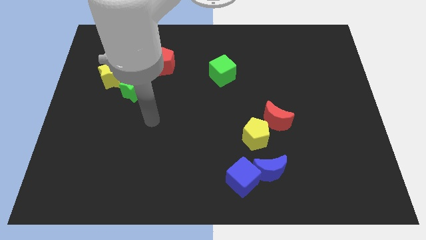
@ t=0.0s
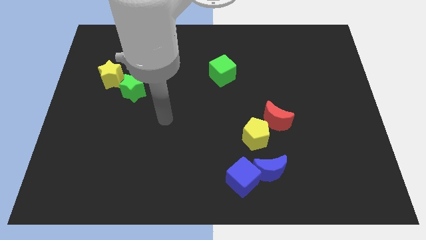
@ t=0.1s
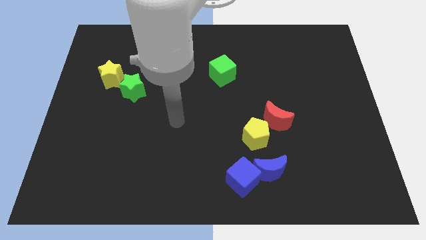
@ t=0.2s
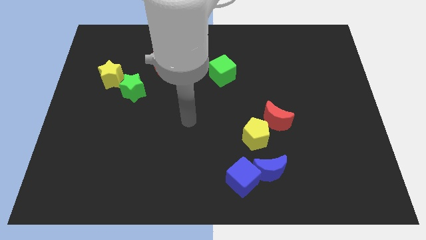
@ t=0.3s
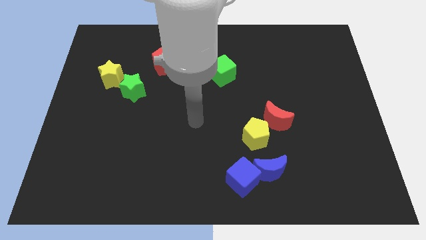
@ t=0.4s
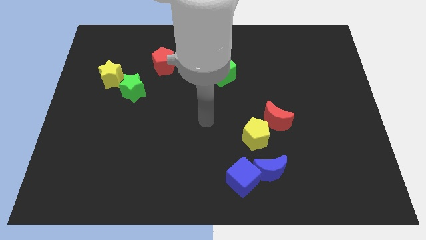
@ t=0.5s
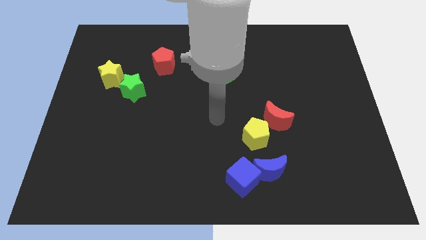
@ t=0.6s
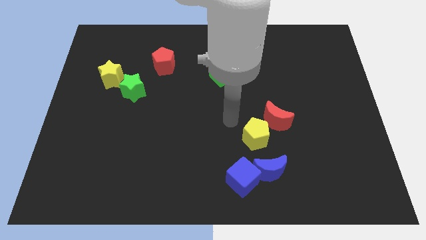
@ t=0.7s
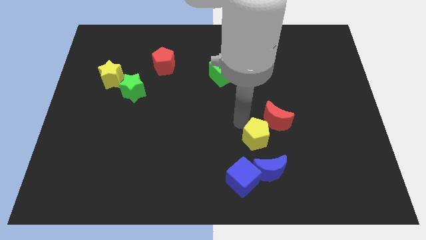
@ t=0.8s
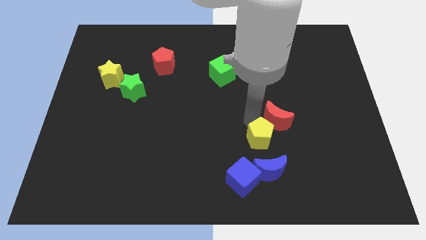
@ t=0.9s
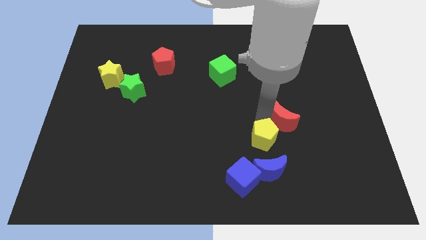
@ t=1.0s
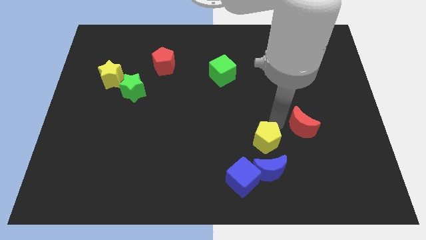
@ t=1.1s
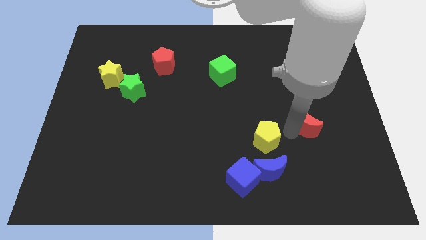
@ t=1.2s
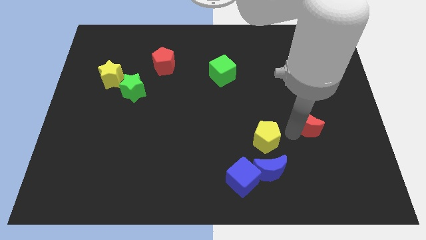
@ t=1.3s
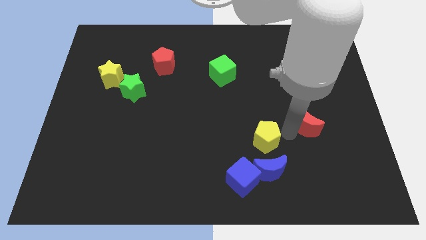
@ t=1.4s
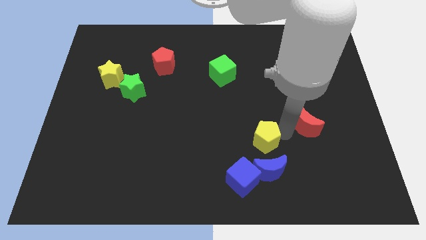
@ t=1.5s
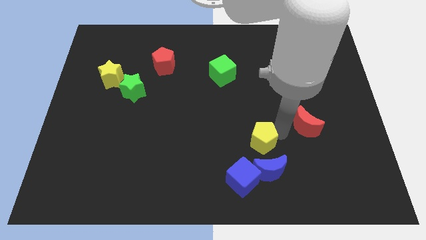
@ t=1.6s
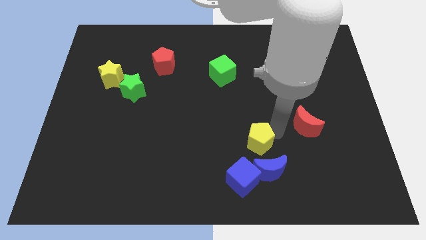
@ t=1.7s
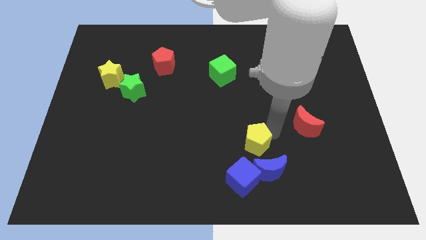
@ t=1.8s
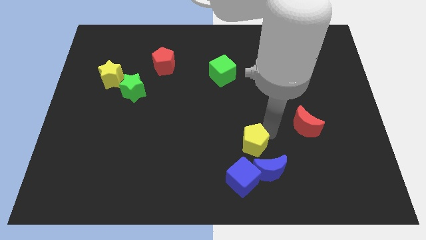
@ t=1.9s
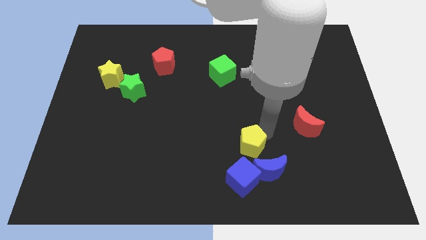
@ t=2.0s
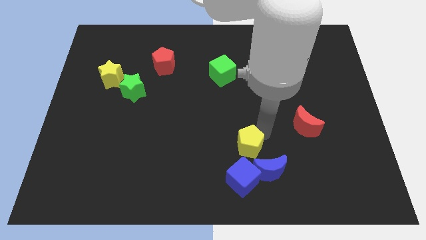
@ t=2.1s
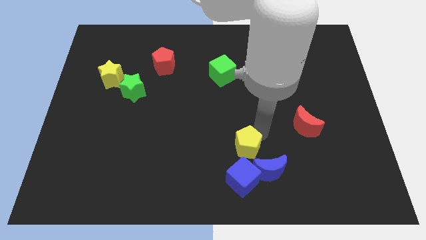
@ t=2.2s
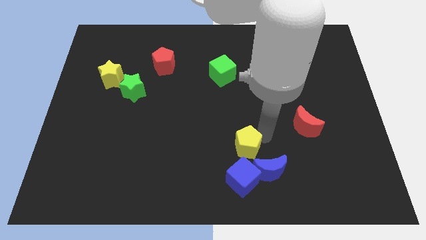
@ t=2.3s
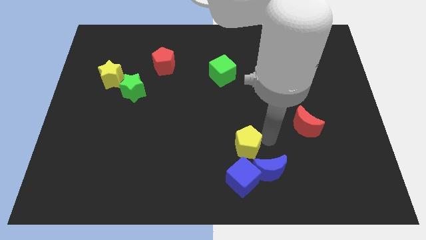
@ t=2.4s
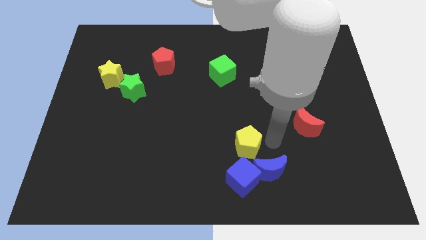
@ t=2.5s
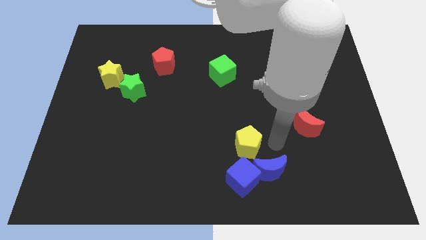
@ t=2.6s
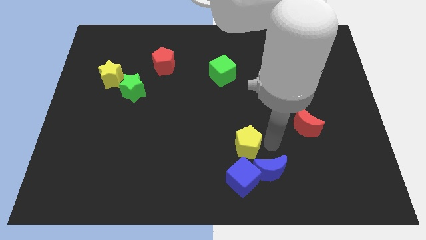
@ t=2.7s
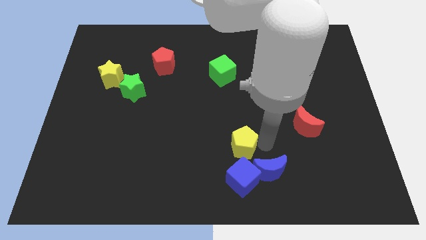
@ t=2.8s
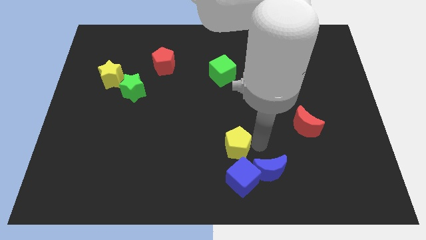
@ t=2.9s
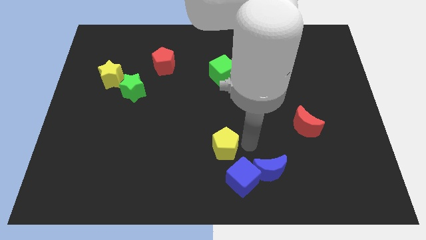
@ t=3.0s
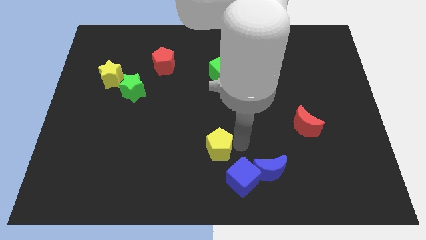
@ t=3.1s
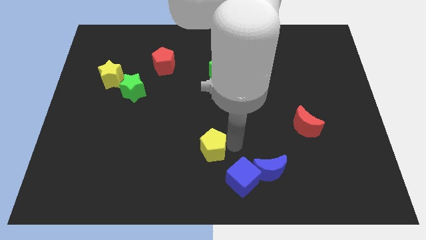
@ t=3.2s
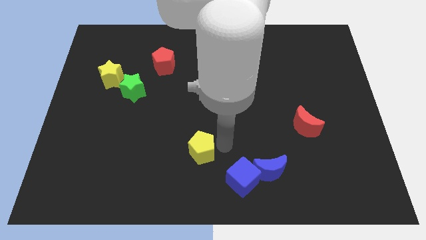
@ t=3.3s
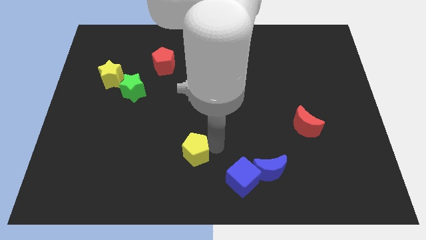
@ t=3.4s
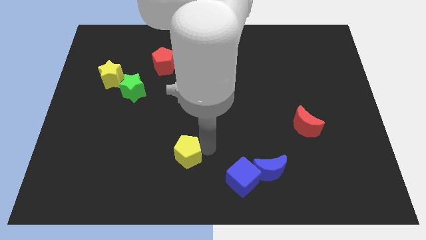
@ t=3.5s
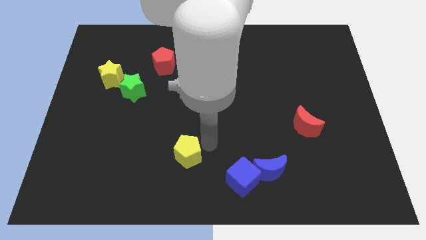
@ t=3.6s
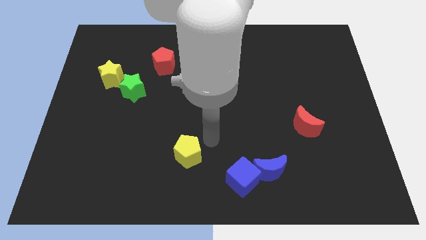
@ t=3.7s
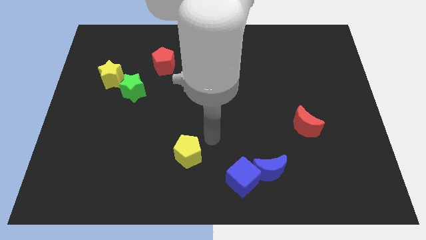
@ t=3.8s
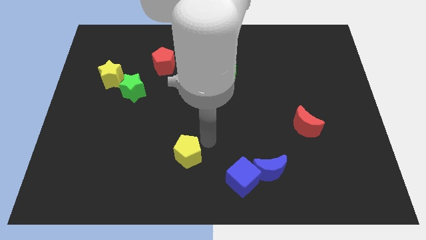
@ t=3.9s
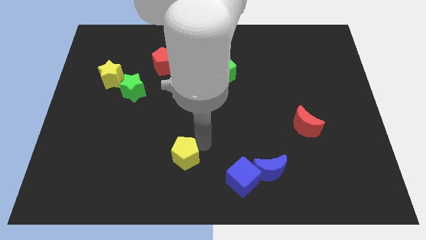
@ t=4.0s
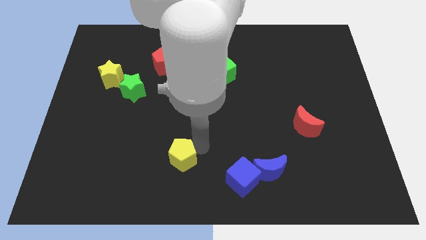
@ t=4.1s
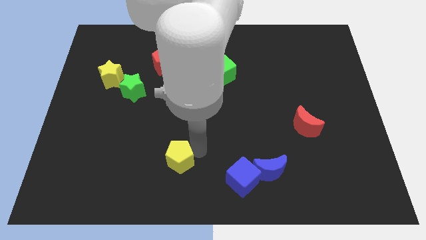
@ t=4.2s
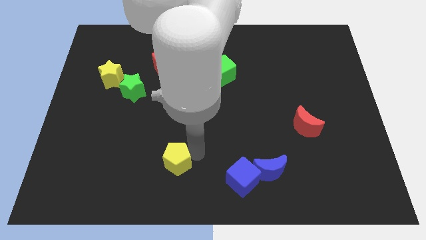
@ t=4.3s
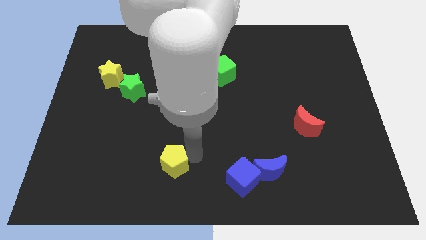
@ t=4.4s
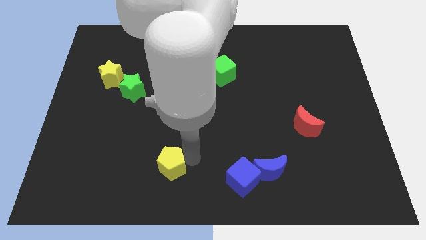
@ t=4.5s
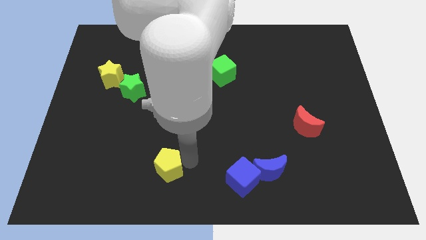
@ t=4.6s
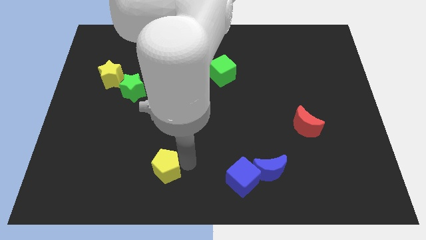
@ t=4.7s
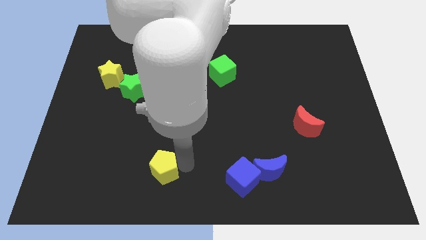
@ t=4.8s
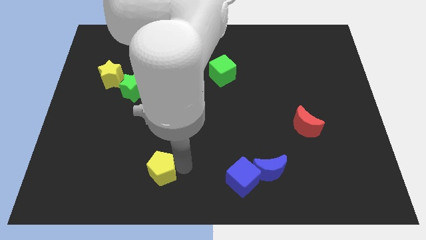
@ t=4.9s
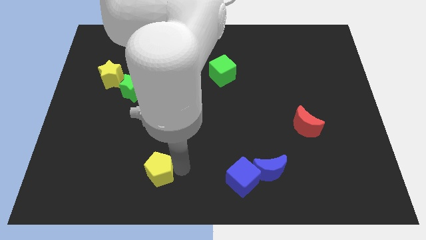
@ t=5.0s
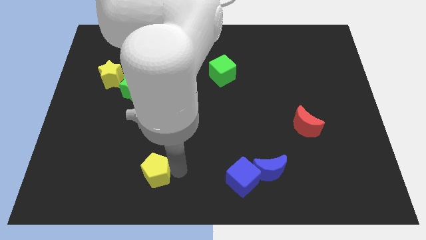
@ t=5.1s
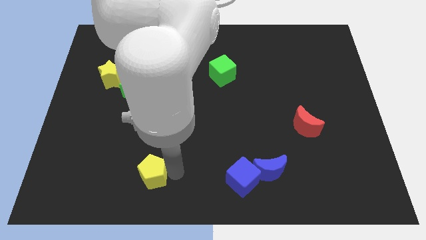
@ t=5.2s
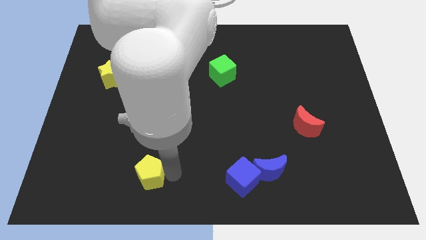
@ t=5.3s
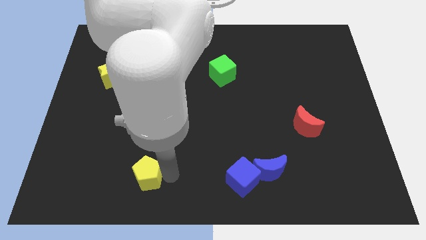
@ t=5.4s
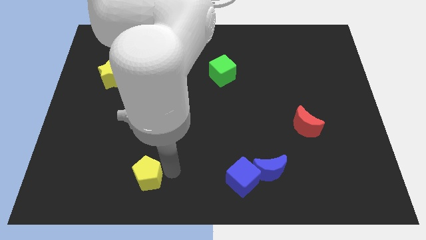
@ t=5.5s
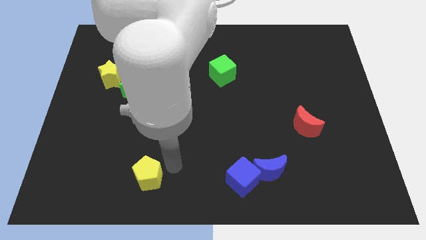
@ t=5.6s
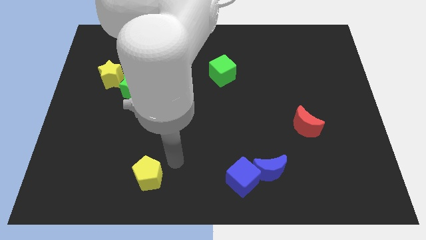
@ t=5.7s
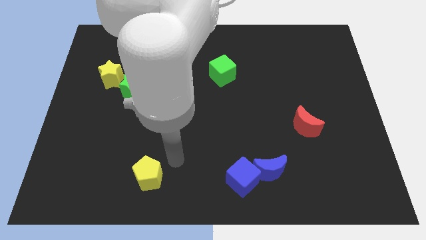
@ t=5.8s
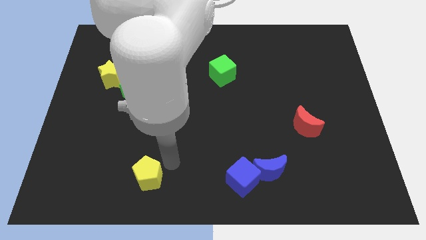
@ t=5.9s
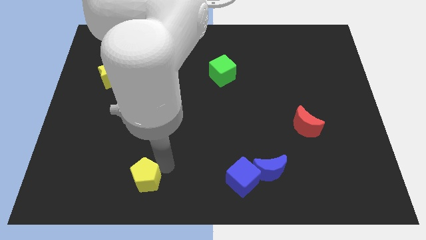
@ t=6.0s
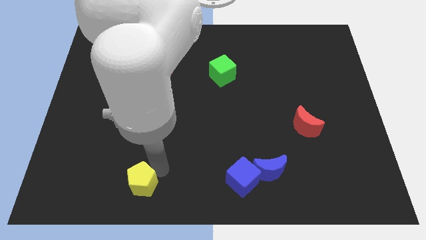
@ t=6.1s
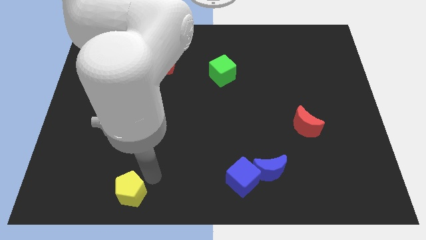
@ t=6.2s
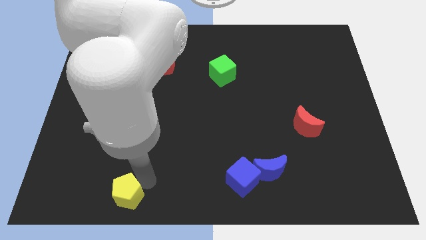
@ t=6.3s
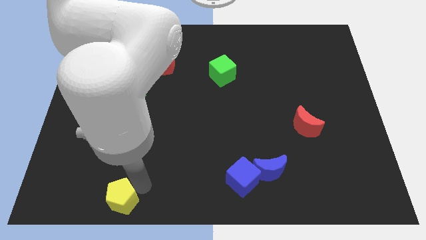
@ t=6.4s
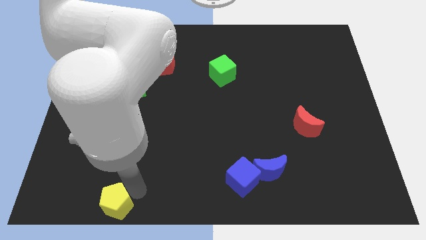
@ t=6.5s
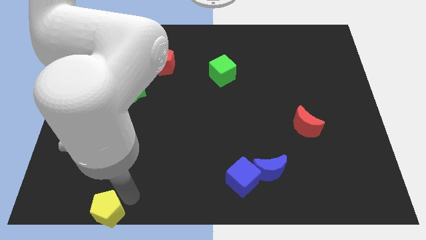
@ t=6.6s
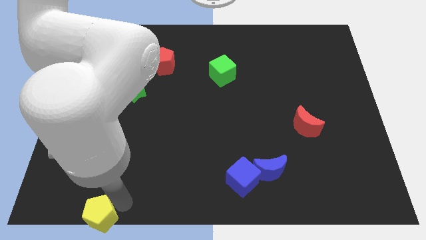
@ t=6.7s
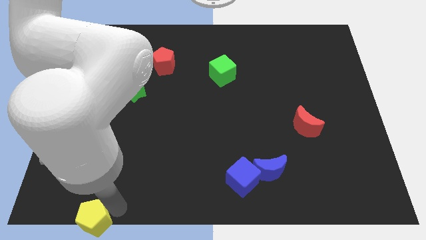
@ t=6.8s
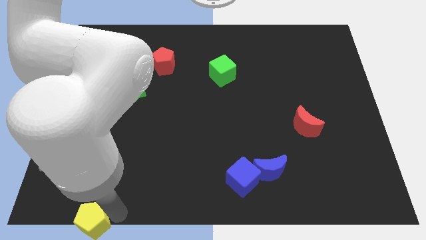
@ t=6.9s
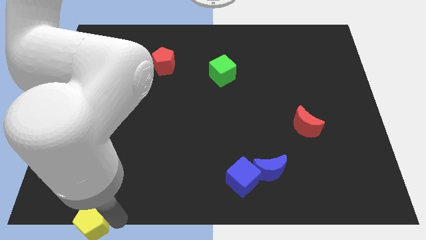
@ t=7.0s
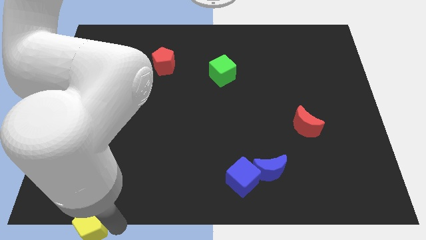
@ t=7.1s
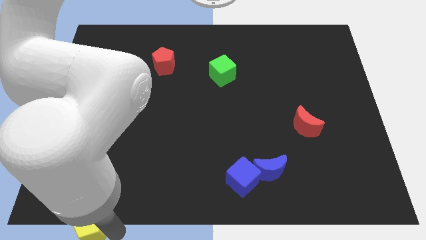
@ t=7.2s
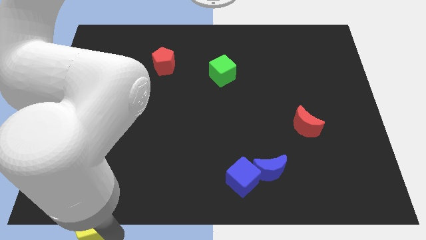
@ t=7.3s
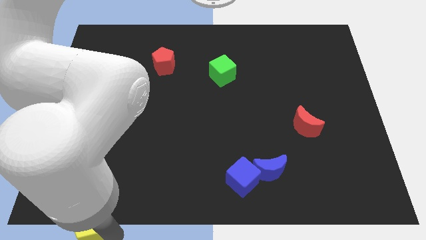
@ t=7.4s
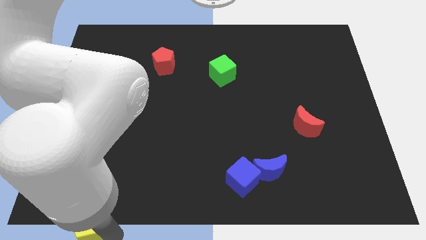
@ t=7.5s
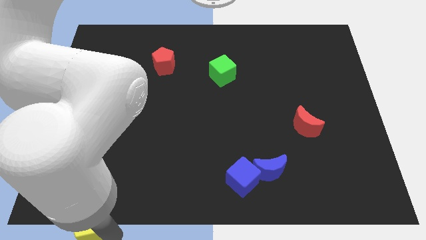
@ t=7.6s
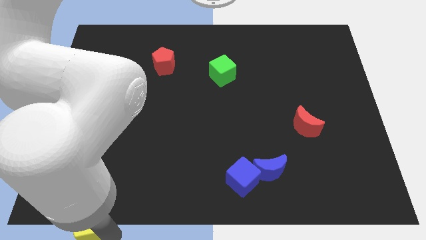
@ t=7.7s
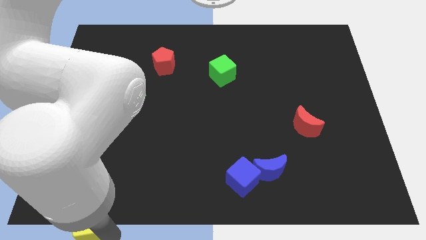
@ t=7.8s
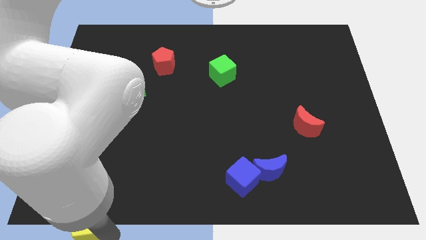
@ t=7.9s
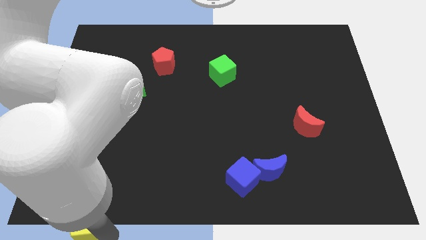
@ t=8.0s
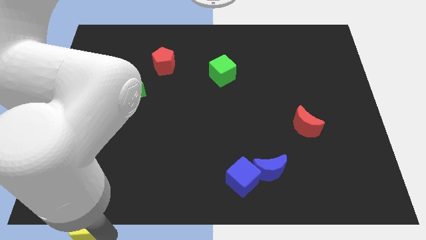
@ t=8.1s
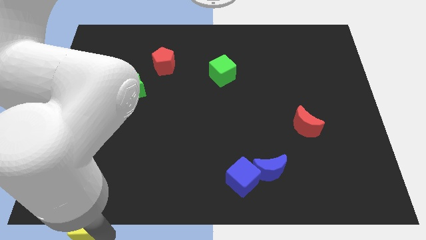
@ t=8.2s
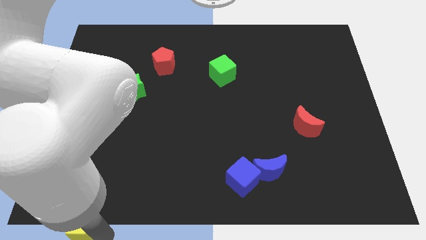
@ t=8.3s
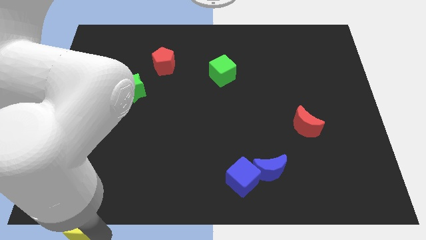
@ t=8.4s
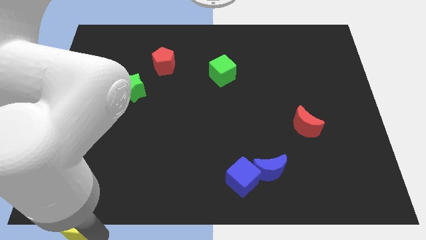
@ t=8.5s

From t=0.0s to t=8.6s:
put the yellow pentagon to the bottom left of the board
